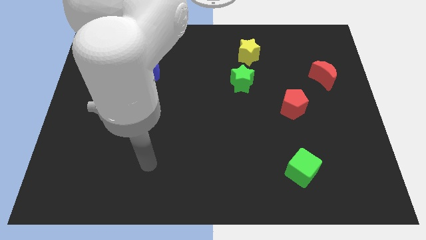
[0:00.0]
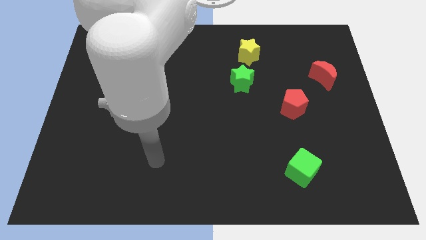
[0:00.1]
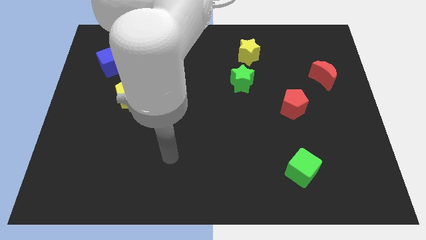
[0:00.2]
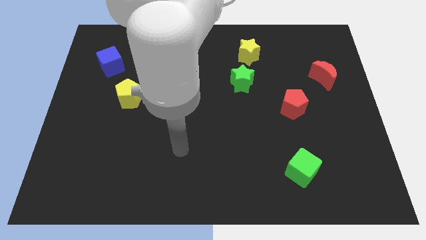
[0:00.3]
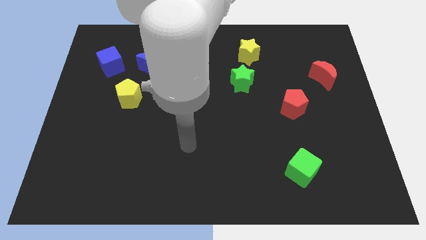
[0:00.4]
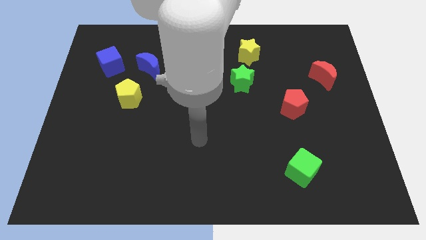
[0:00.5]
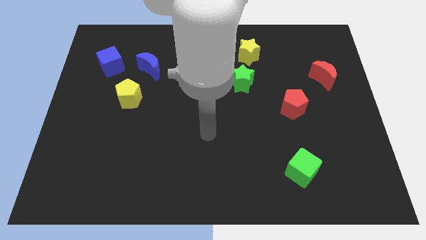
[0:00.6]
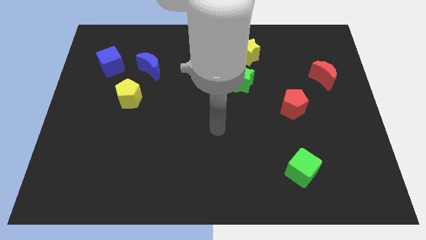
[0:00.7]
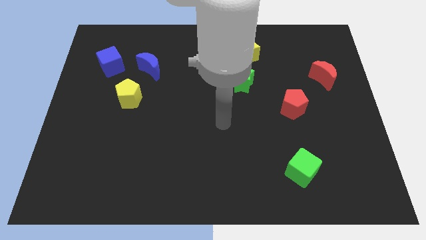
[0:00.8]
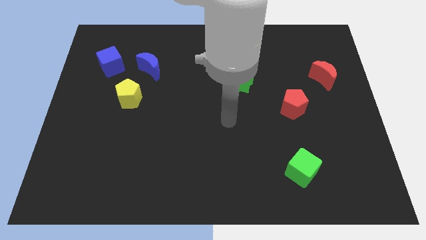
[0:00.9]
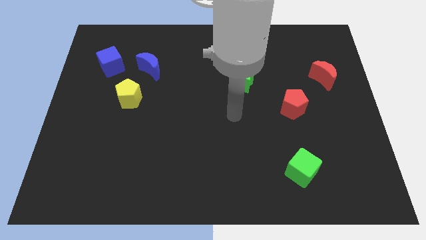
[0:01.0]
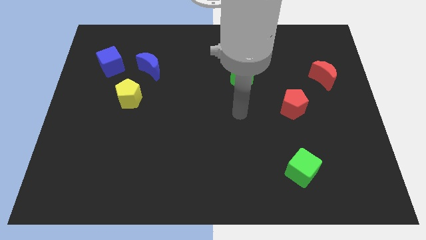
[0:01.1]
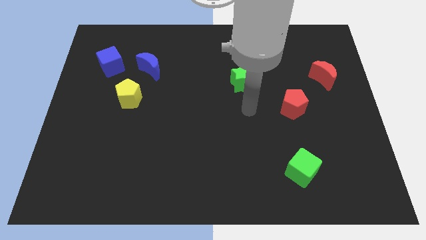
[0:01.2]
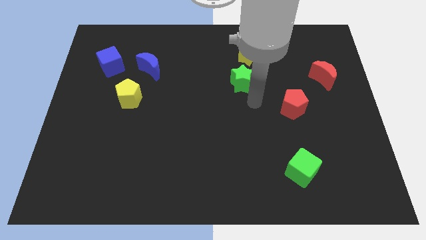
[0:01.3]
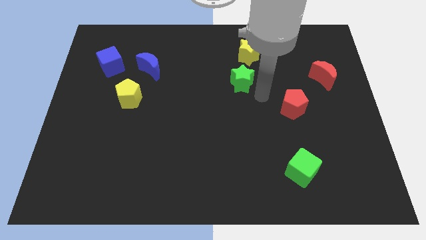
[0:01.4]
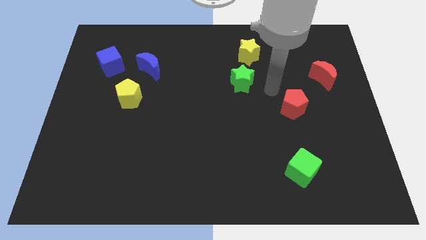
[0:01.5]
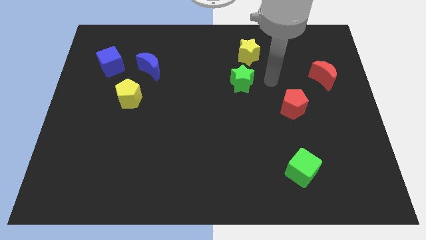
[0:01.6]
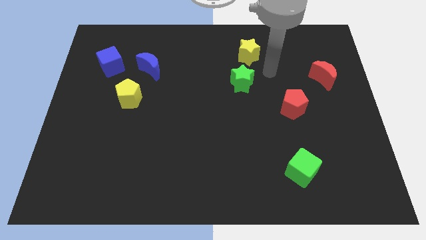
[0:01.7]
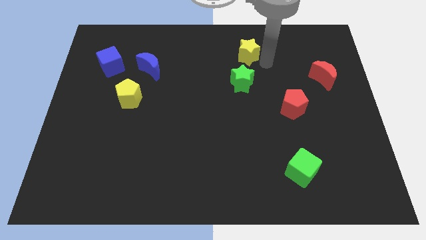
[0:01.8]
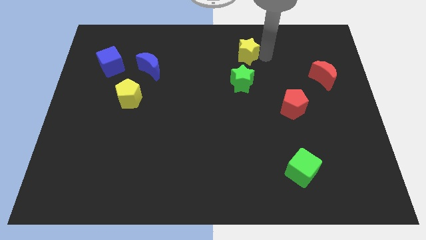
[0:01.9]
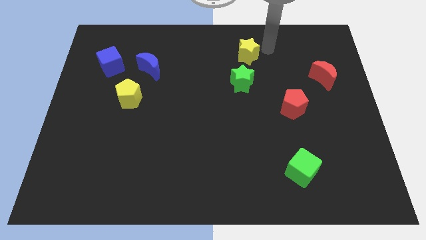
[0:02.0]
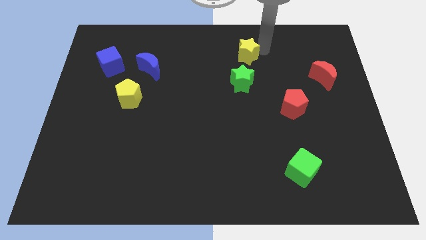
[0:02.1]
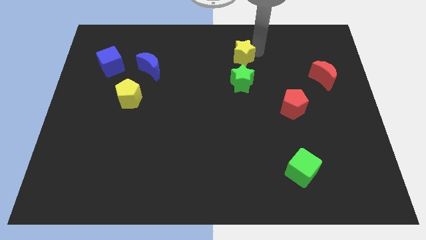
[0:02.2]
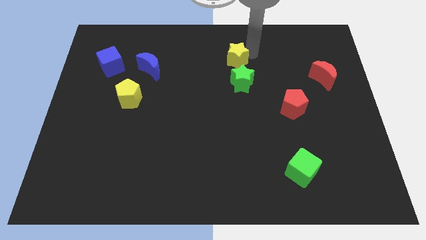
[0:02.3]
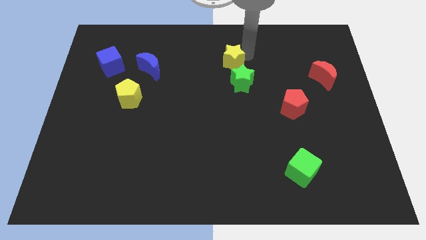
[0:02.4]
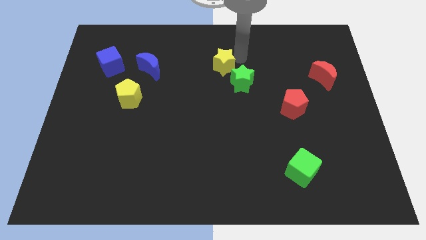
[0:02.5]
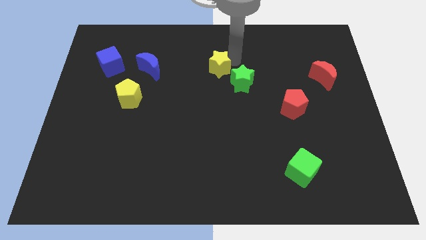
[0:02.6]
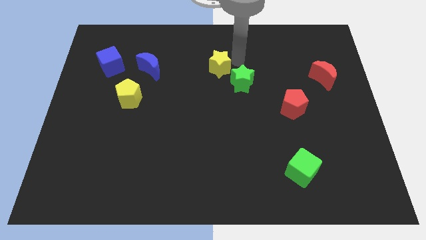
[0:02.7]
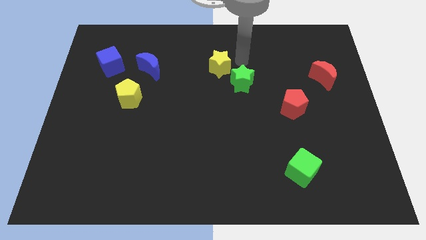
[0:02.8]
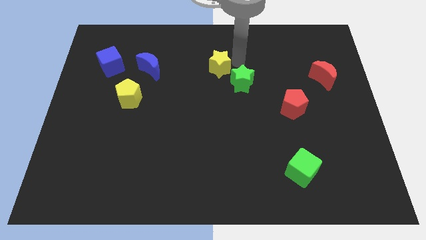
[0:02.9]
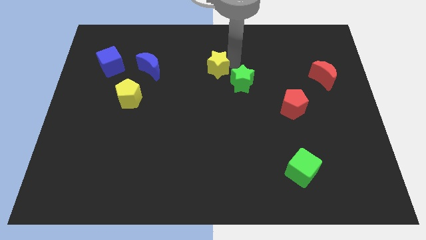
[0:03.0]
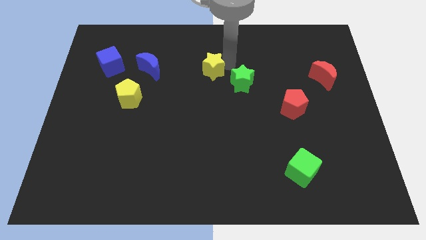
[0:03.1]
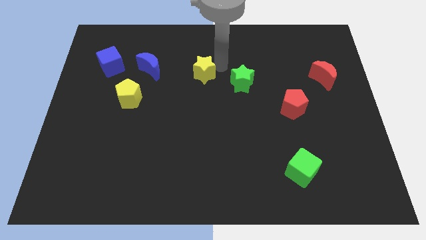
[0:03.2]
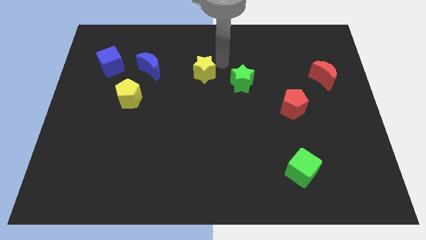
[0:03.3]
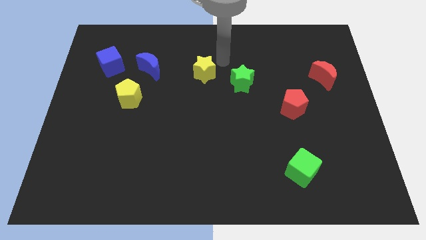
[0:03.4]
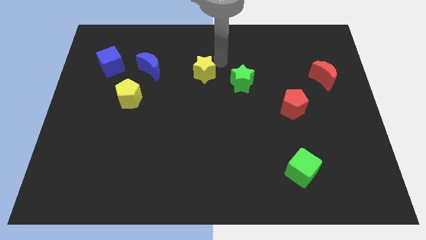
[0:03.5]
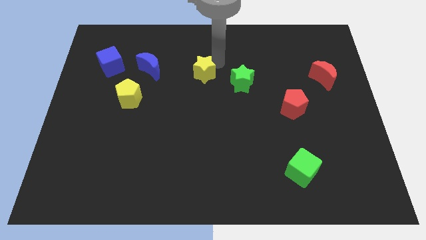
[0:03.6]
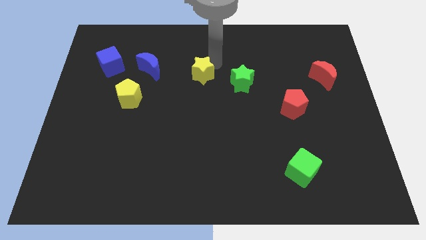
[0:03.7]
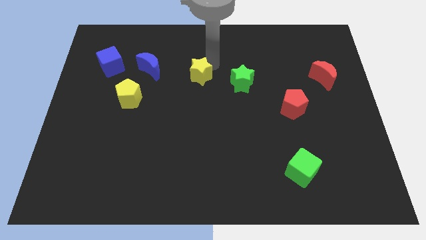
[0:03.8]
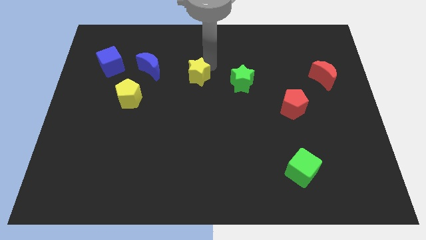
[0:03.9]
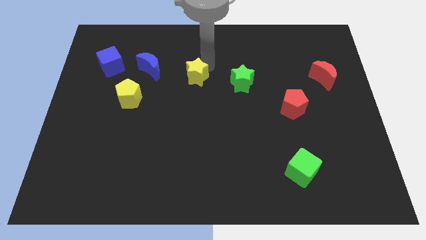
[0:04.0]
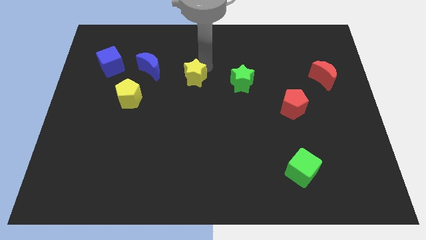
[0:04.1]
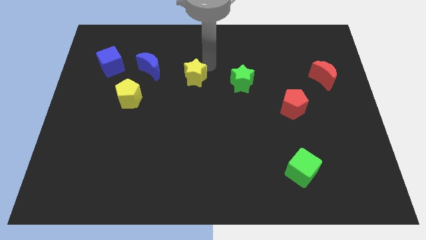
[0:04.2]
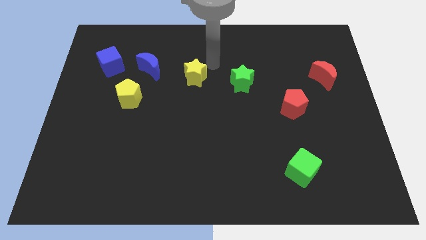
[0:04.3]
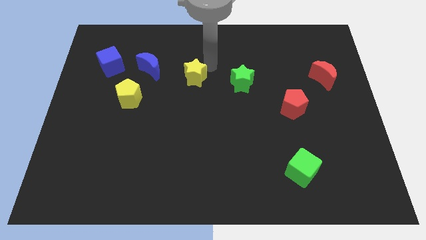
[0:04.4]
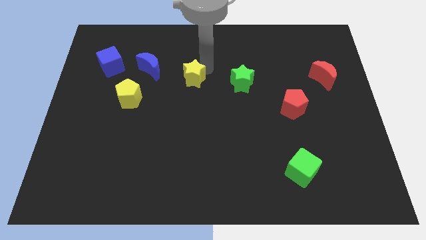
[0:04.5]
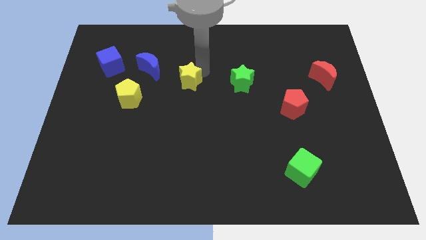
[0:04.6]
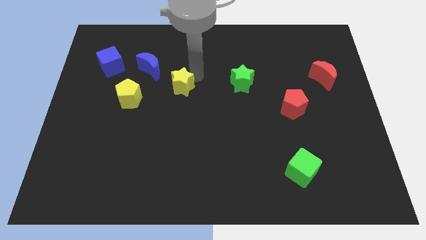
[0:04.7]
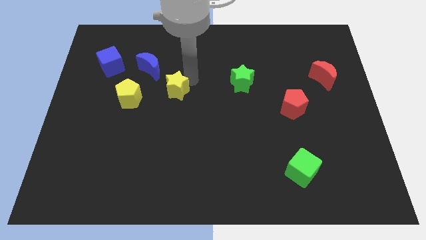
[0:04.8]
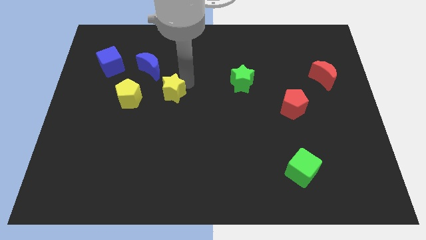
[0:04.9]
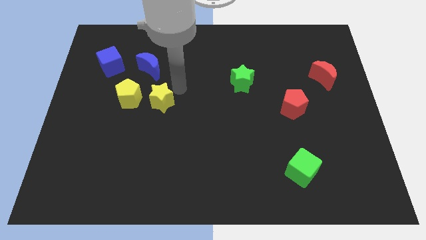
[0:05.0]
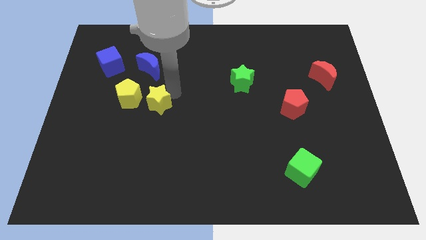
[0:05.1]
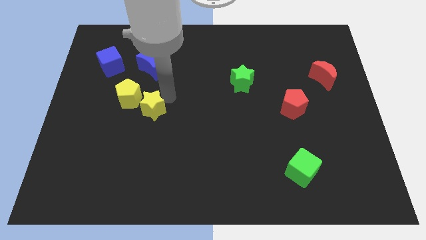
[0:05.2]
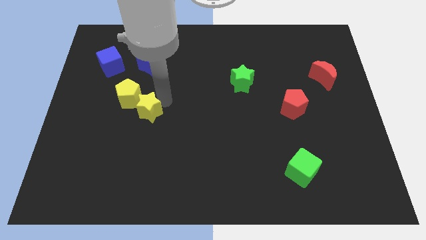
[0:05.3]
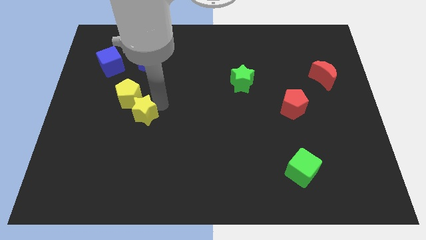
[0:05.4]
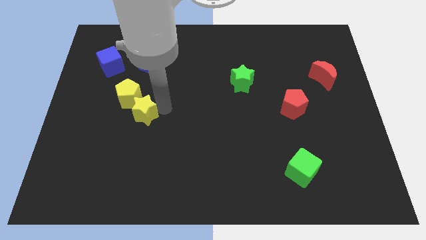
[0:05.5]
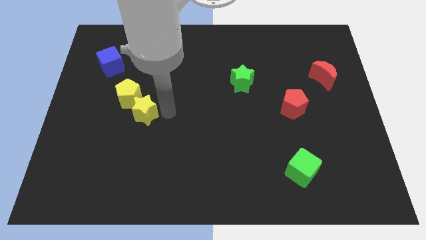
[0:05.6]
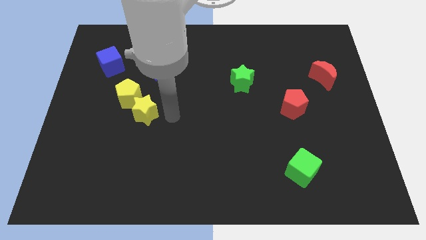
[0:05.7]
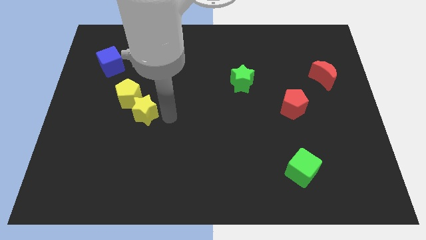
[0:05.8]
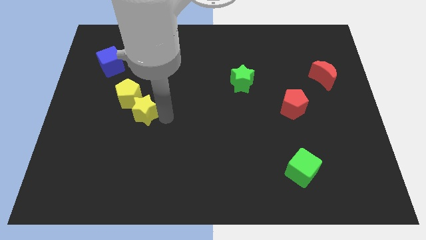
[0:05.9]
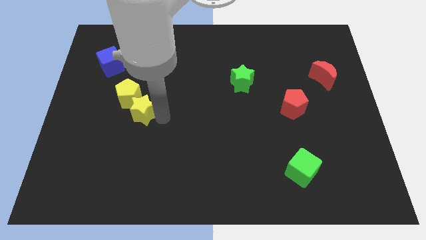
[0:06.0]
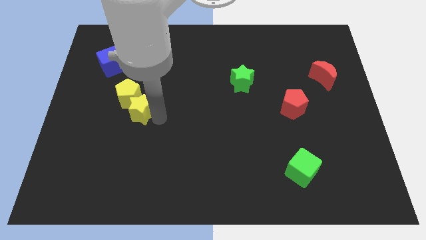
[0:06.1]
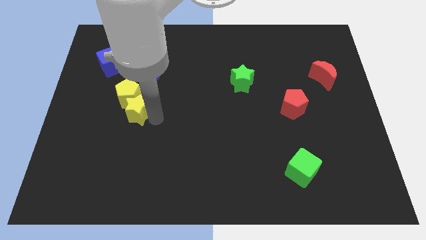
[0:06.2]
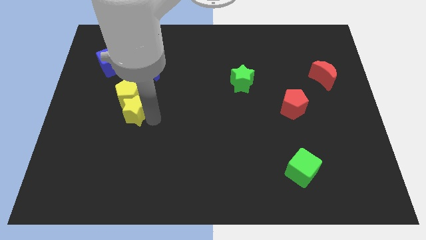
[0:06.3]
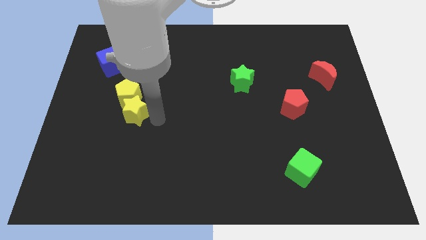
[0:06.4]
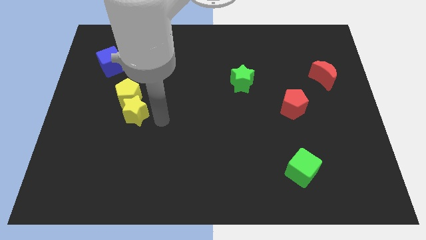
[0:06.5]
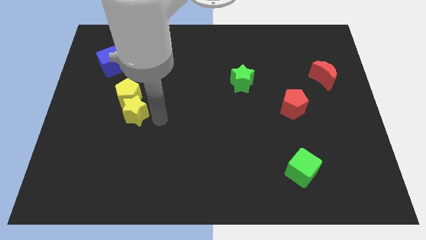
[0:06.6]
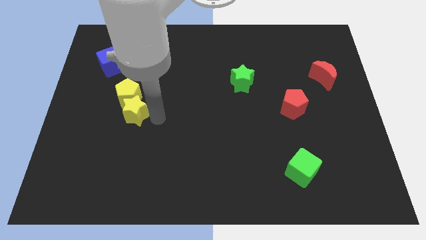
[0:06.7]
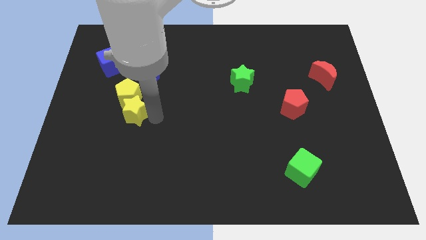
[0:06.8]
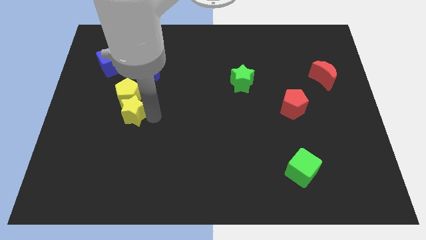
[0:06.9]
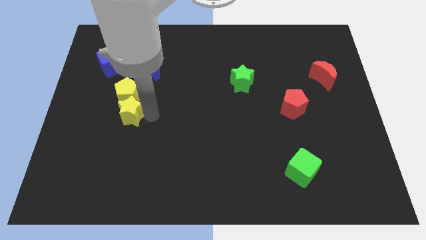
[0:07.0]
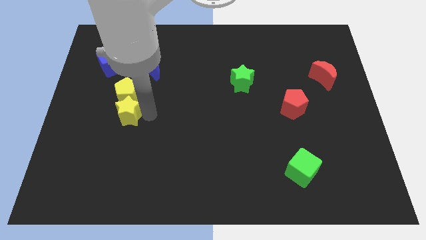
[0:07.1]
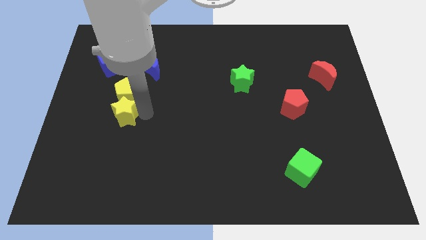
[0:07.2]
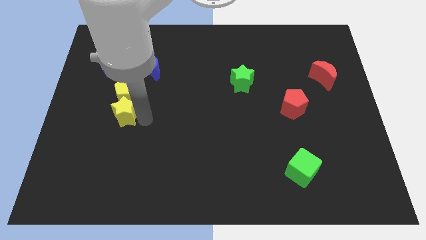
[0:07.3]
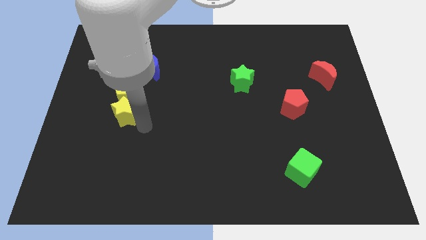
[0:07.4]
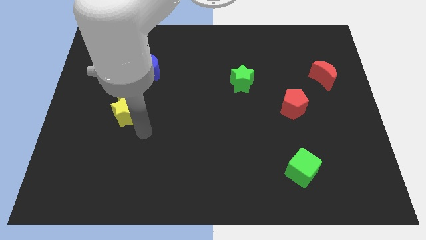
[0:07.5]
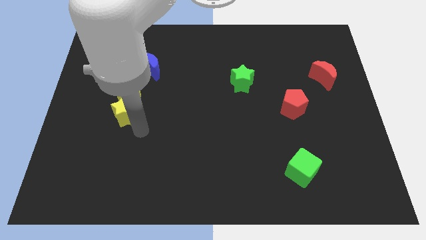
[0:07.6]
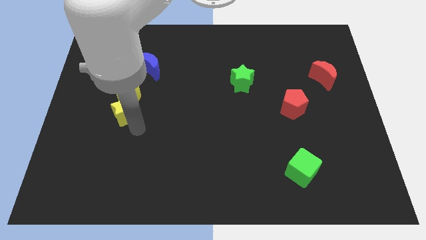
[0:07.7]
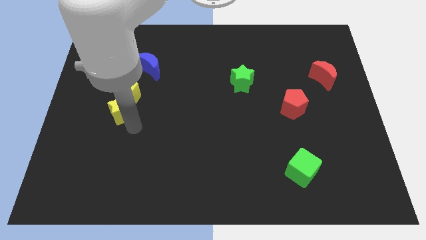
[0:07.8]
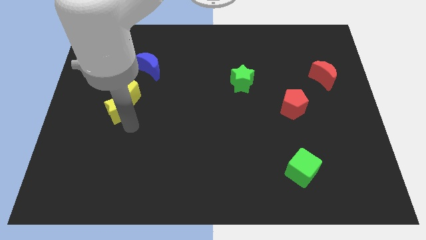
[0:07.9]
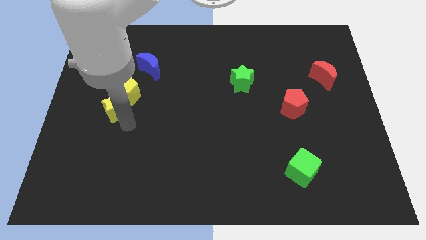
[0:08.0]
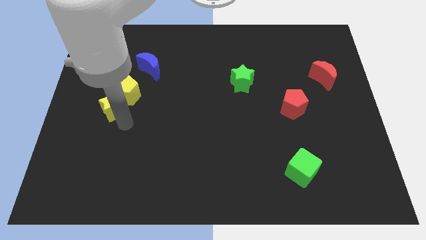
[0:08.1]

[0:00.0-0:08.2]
put the yellow star to the bottom of the blue cube
